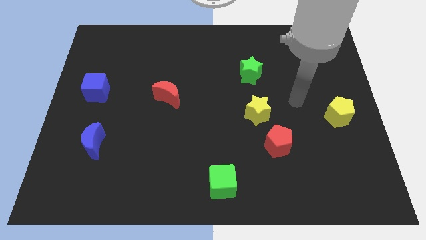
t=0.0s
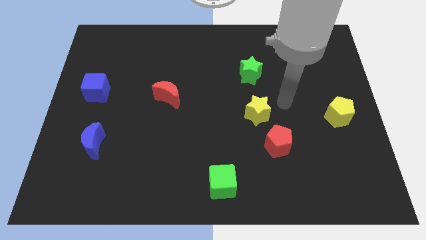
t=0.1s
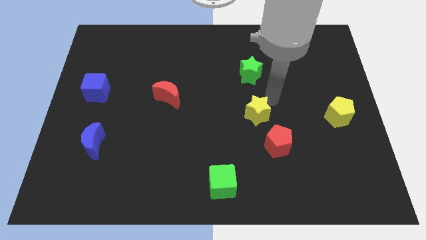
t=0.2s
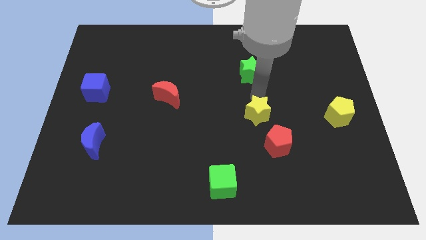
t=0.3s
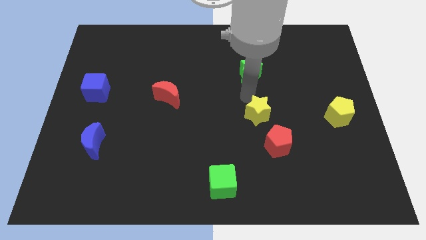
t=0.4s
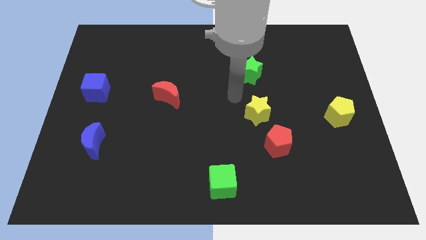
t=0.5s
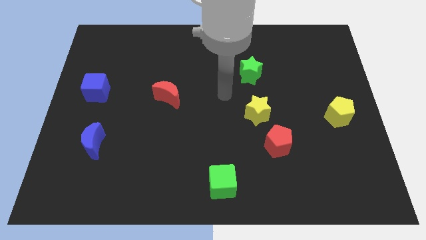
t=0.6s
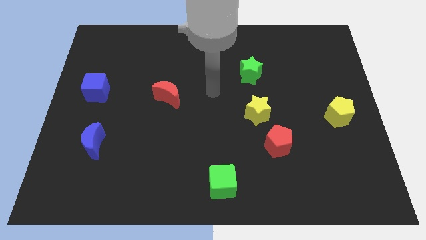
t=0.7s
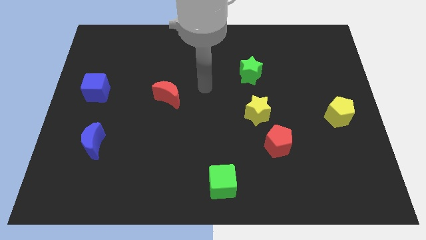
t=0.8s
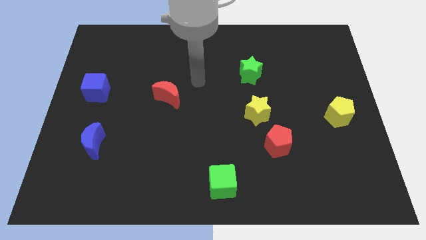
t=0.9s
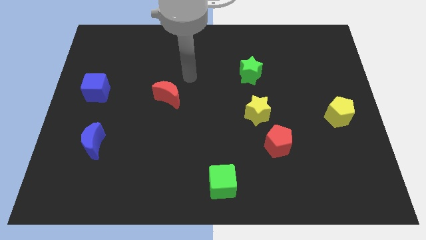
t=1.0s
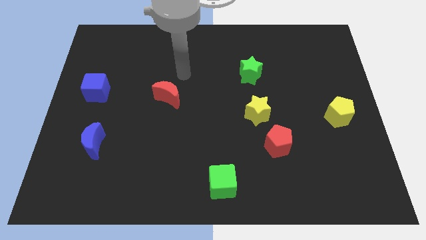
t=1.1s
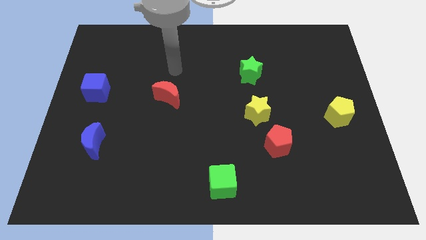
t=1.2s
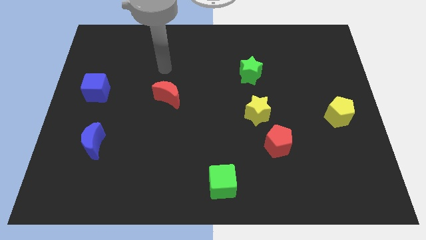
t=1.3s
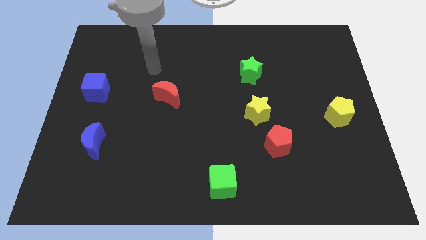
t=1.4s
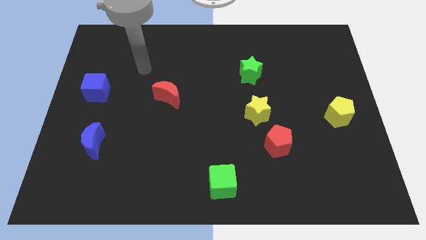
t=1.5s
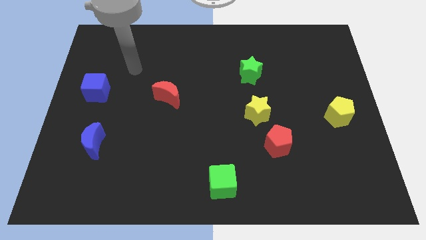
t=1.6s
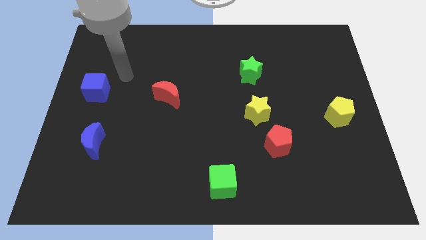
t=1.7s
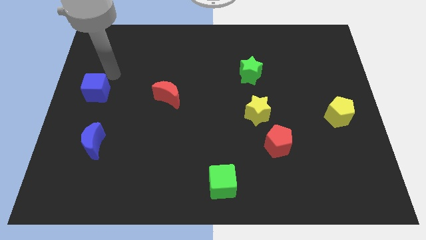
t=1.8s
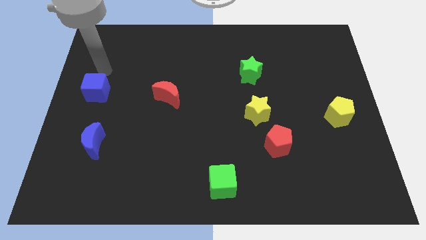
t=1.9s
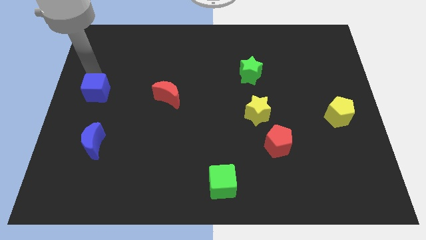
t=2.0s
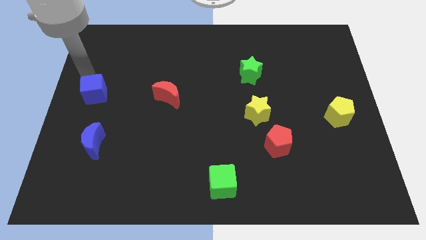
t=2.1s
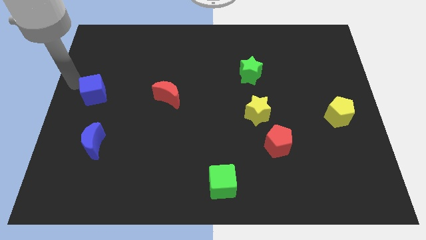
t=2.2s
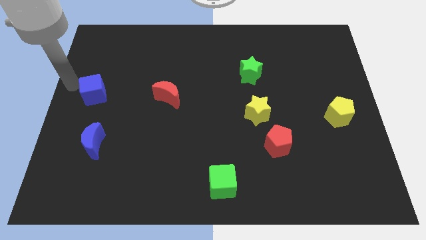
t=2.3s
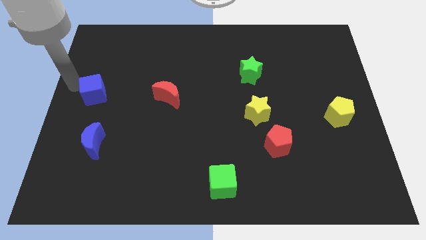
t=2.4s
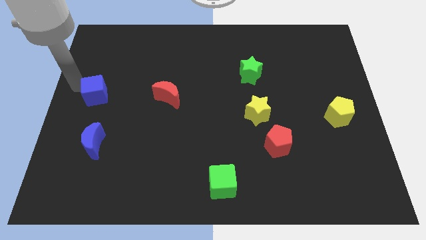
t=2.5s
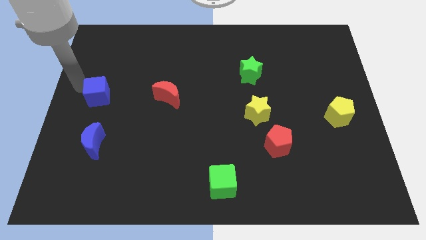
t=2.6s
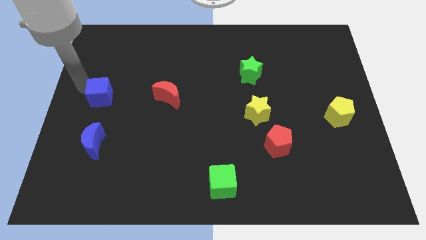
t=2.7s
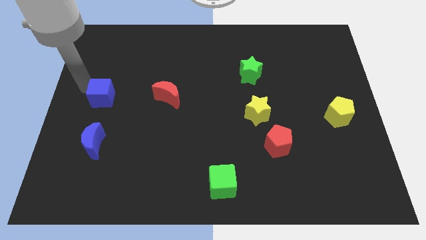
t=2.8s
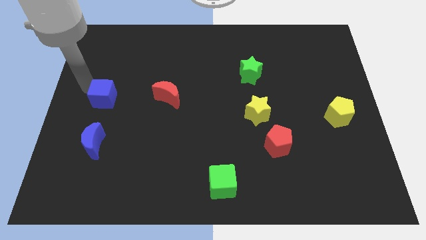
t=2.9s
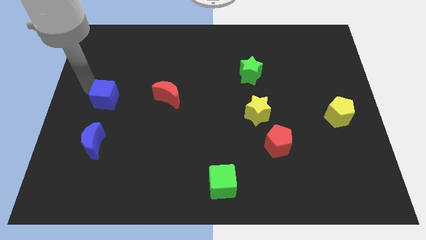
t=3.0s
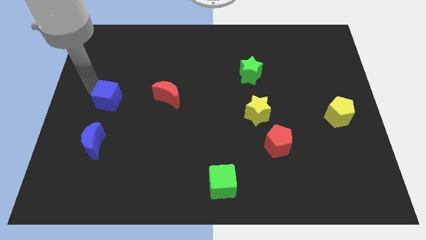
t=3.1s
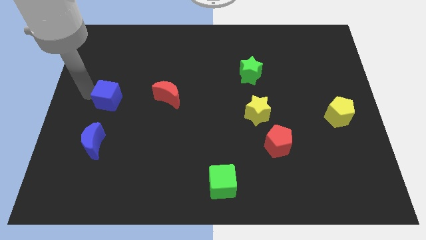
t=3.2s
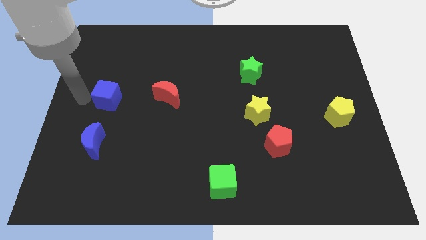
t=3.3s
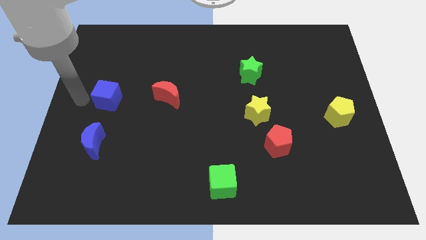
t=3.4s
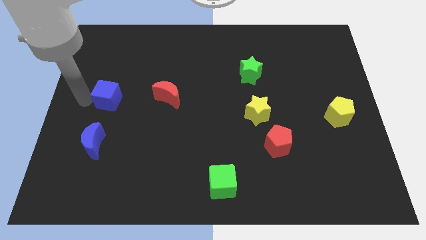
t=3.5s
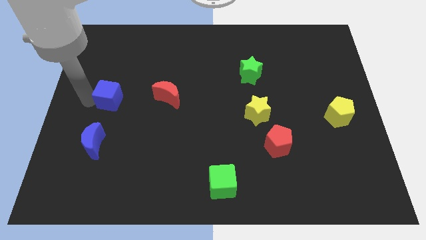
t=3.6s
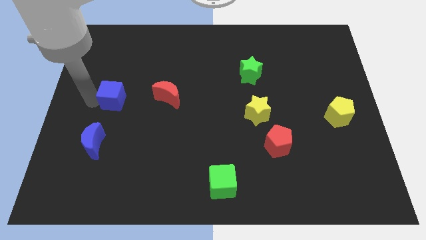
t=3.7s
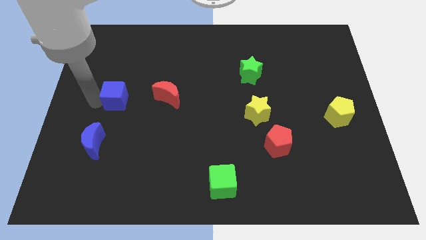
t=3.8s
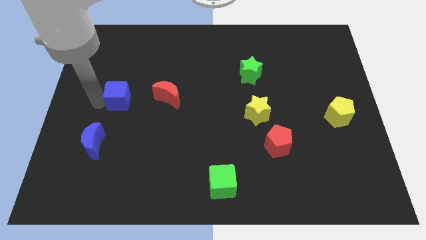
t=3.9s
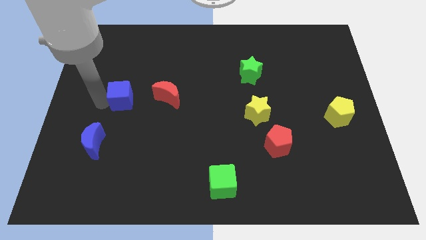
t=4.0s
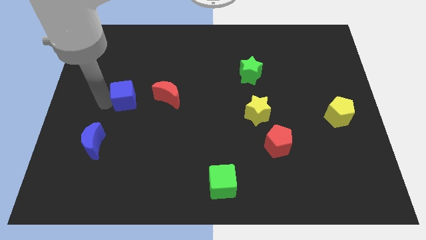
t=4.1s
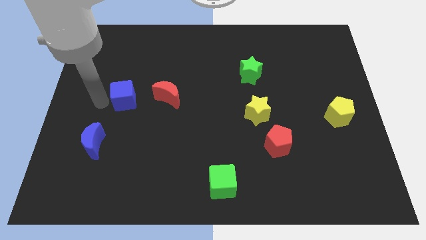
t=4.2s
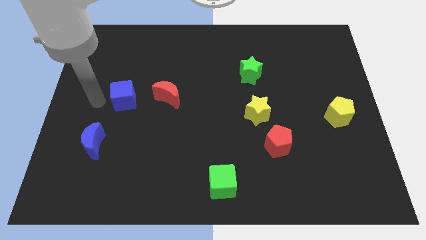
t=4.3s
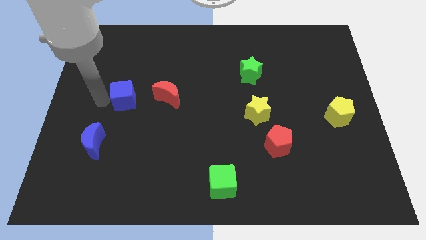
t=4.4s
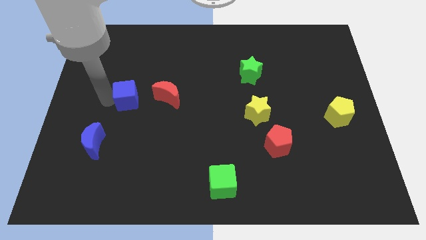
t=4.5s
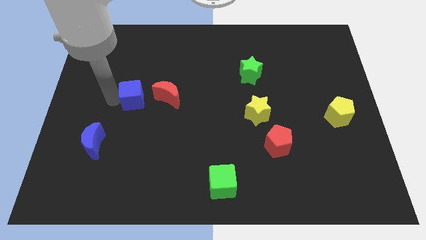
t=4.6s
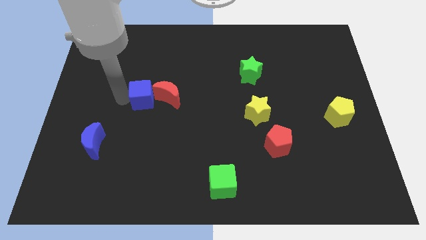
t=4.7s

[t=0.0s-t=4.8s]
push the blue cube next to the red moon

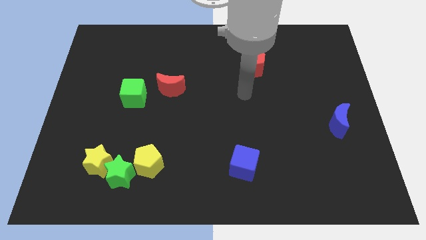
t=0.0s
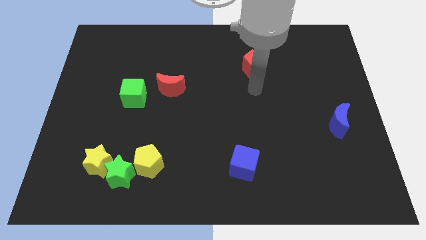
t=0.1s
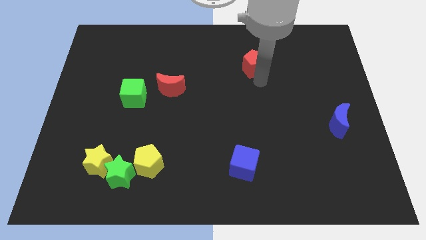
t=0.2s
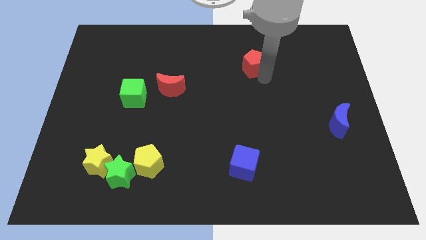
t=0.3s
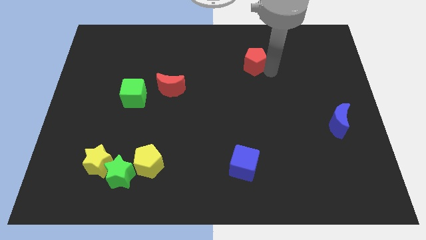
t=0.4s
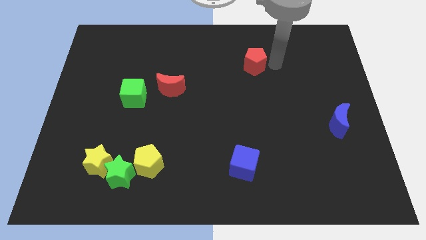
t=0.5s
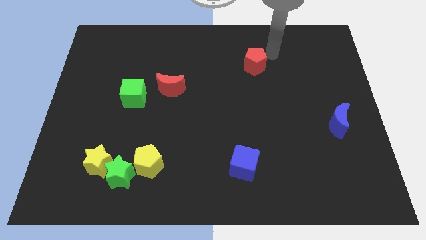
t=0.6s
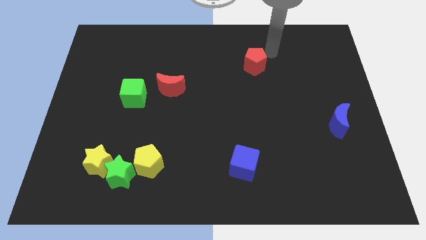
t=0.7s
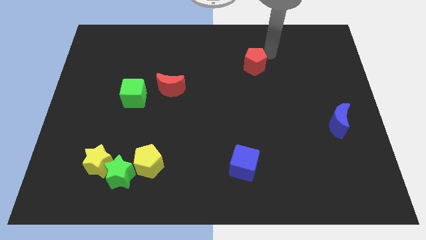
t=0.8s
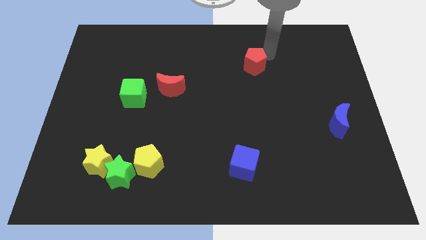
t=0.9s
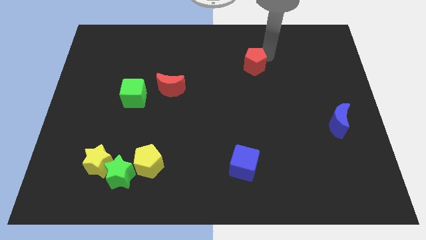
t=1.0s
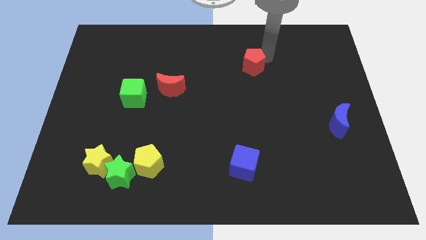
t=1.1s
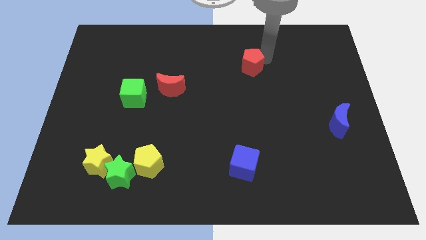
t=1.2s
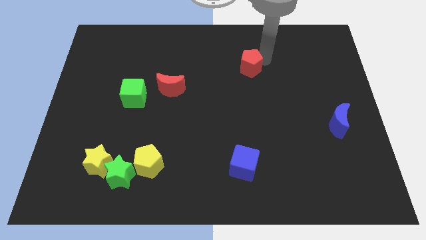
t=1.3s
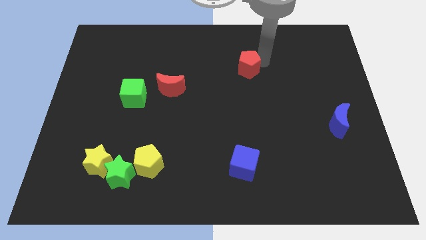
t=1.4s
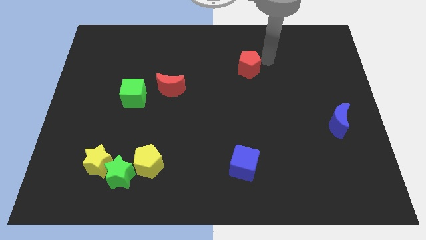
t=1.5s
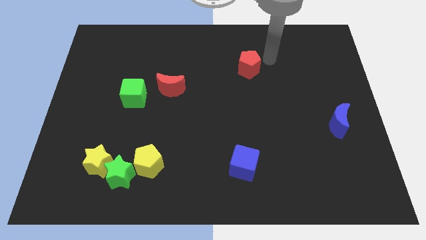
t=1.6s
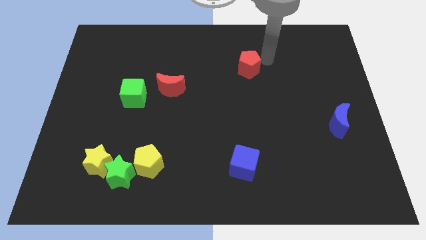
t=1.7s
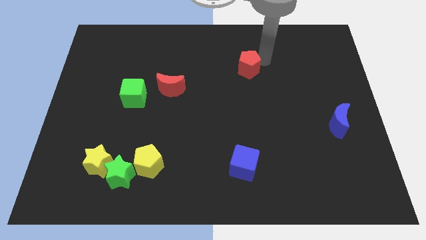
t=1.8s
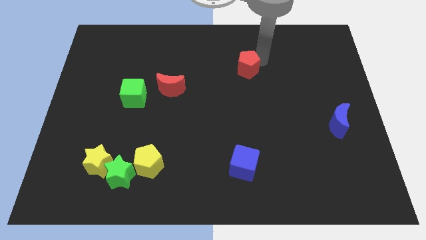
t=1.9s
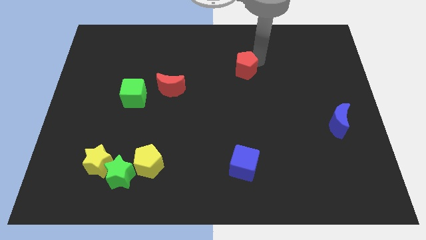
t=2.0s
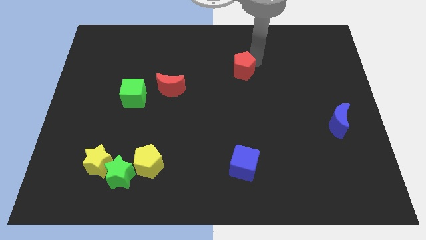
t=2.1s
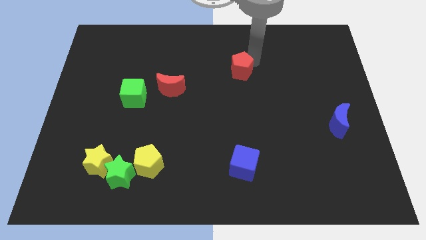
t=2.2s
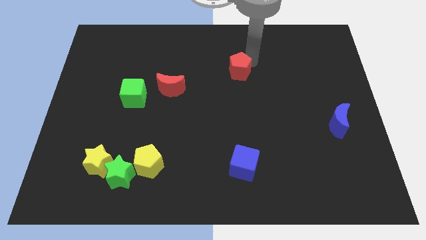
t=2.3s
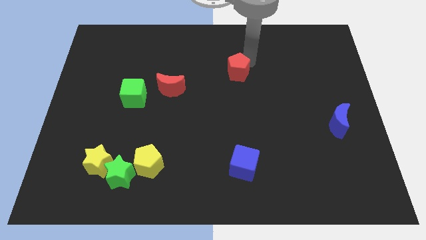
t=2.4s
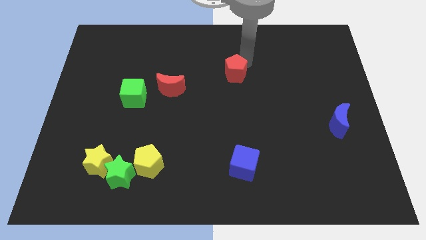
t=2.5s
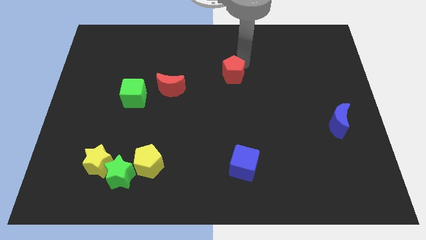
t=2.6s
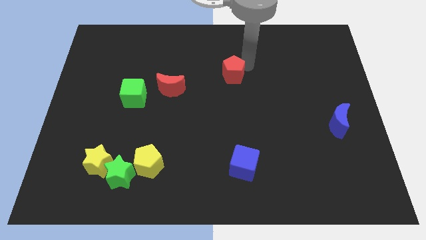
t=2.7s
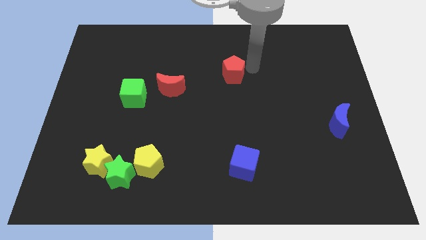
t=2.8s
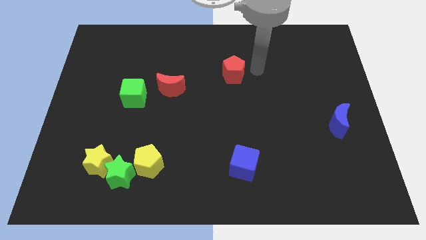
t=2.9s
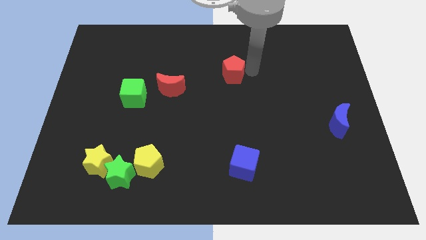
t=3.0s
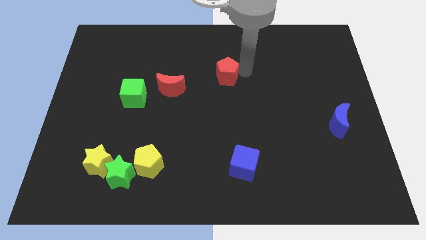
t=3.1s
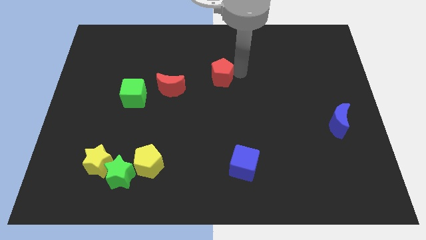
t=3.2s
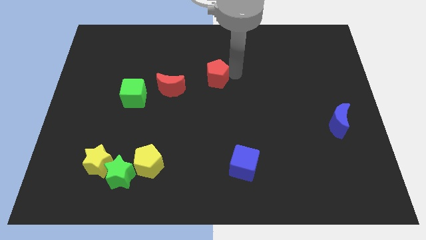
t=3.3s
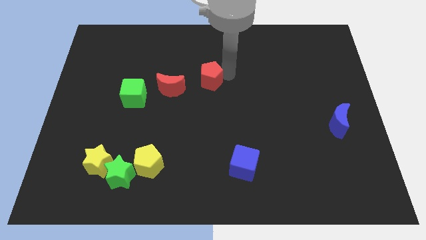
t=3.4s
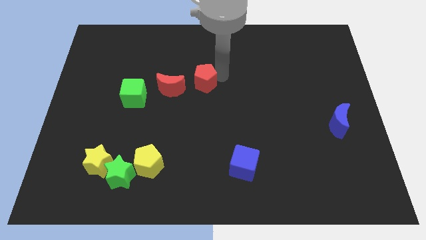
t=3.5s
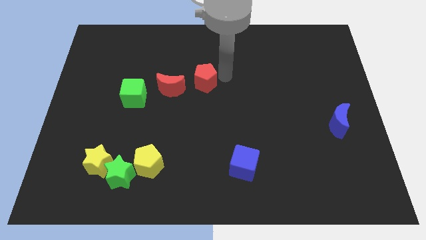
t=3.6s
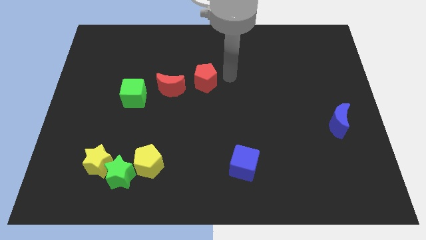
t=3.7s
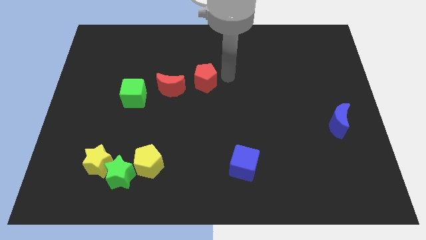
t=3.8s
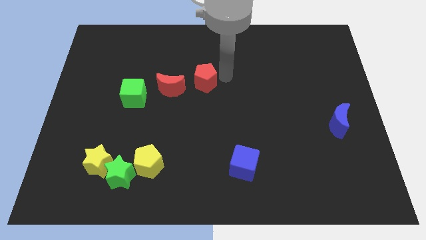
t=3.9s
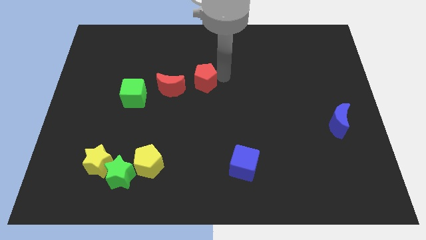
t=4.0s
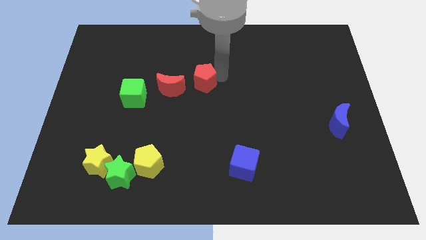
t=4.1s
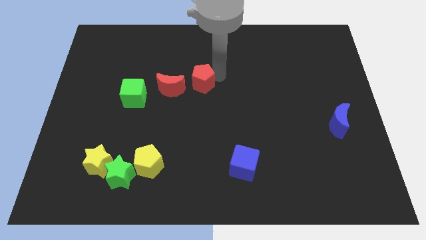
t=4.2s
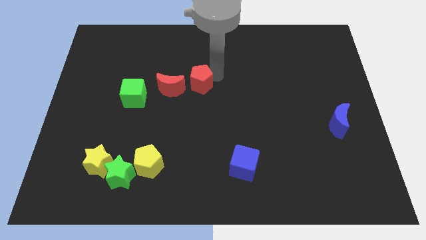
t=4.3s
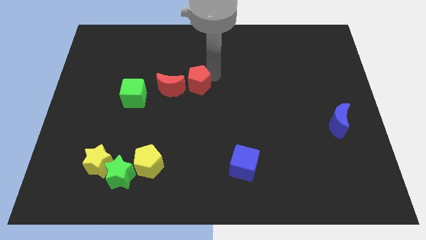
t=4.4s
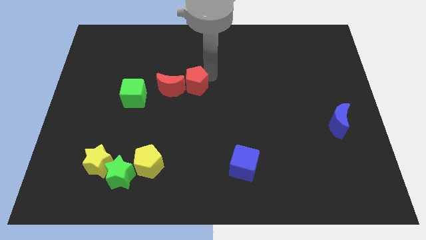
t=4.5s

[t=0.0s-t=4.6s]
slide the red pentagon next to the red moon
